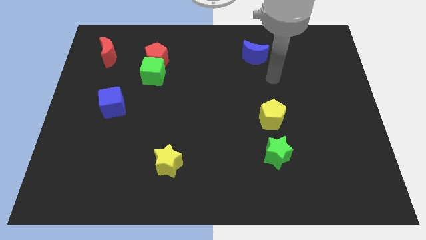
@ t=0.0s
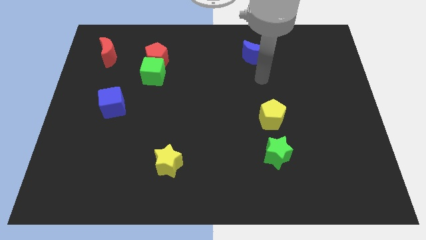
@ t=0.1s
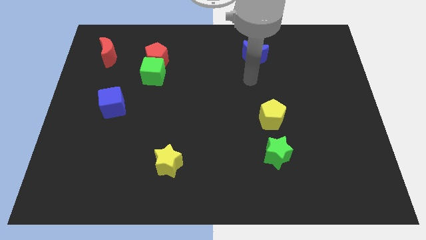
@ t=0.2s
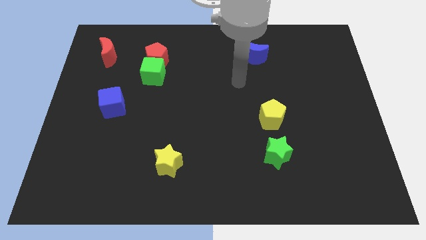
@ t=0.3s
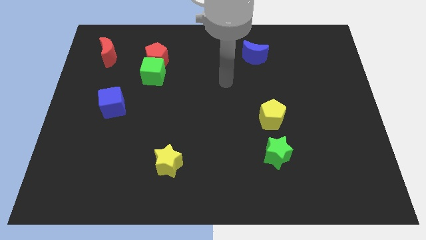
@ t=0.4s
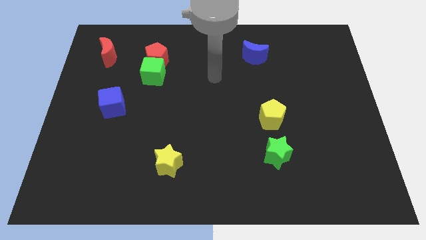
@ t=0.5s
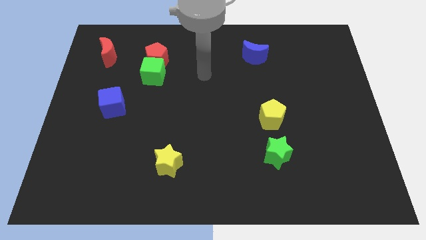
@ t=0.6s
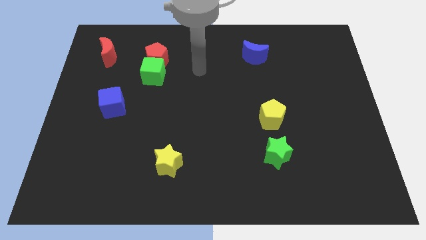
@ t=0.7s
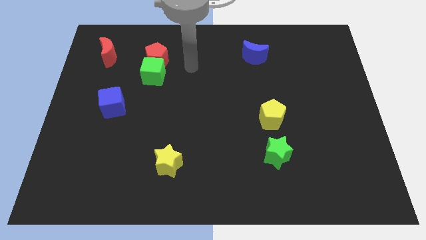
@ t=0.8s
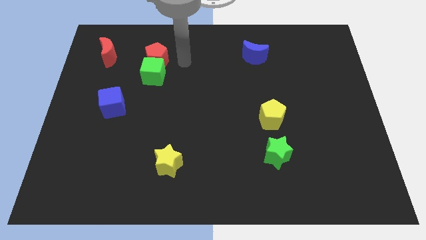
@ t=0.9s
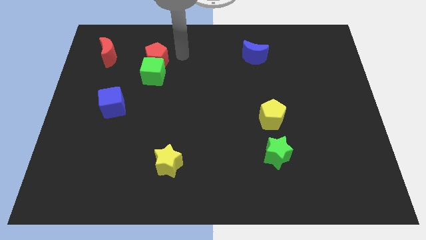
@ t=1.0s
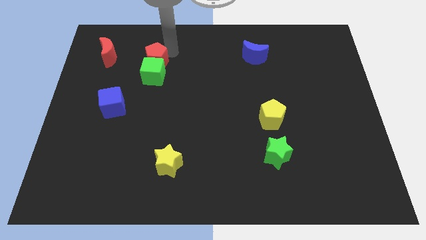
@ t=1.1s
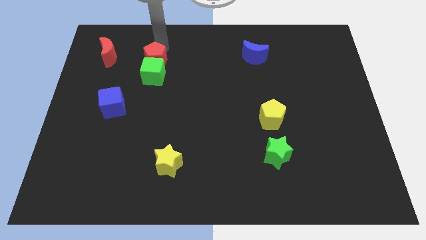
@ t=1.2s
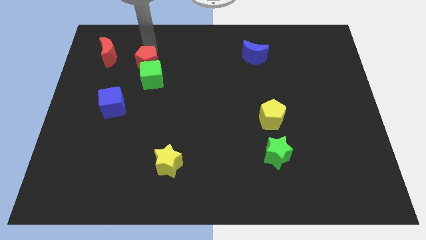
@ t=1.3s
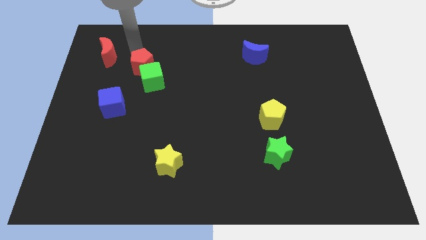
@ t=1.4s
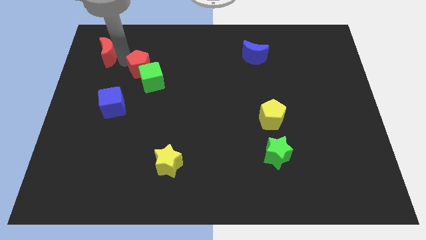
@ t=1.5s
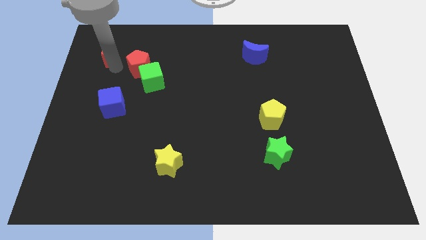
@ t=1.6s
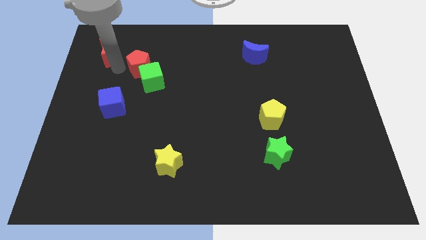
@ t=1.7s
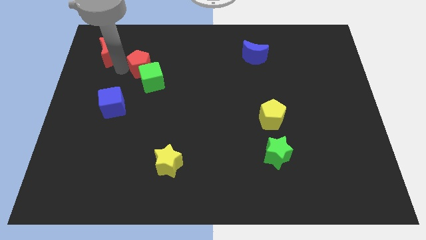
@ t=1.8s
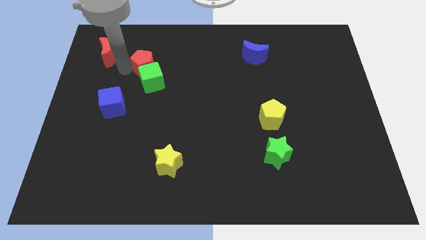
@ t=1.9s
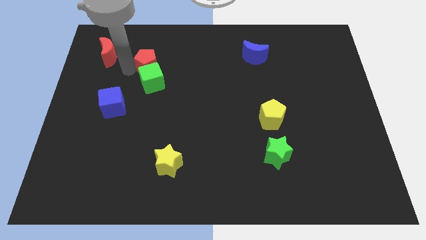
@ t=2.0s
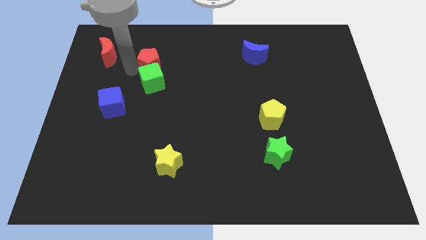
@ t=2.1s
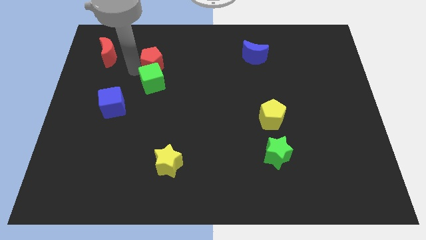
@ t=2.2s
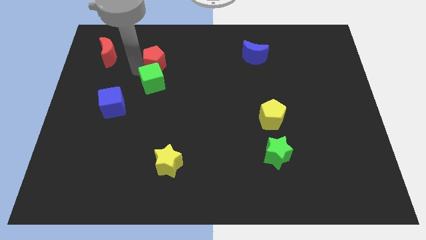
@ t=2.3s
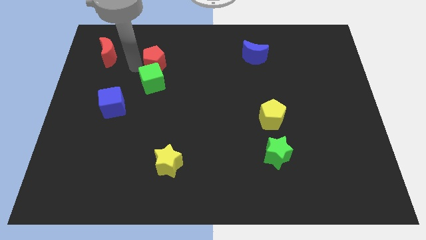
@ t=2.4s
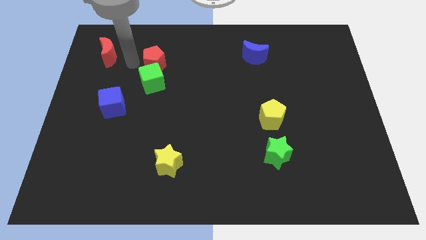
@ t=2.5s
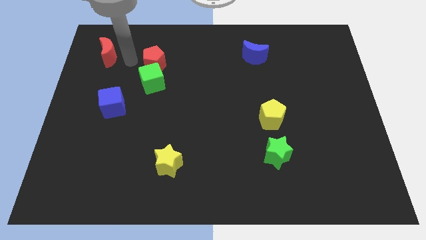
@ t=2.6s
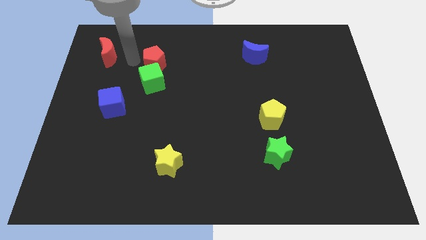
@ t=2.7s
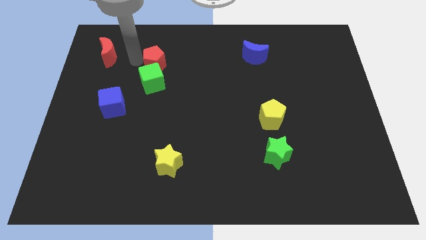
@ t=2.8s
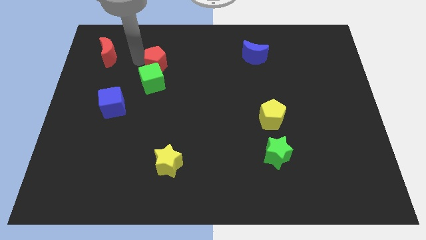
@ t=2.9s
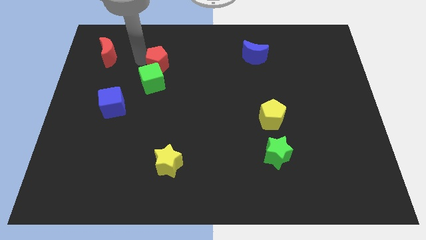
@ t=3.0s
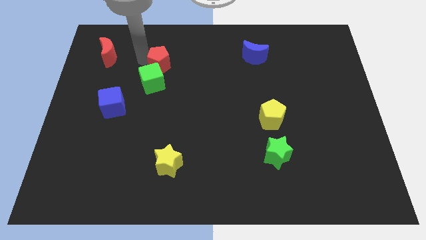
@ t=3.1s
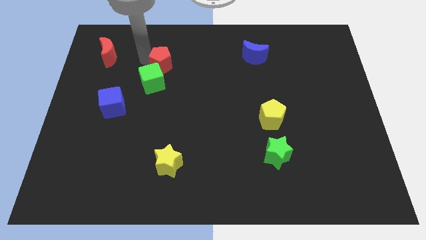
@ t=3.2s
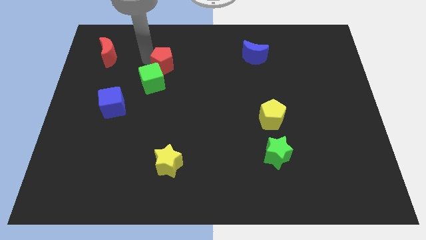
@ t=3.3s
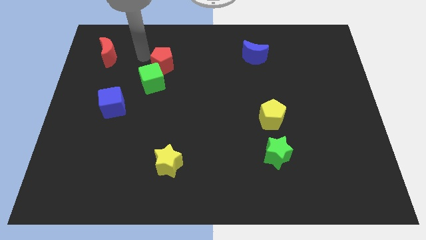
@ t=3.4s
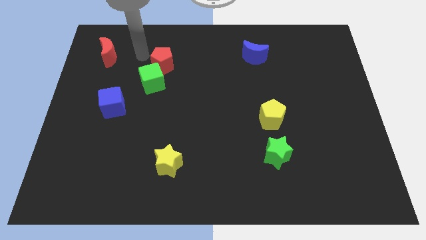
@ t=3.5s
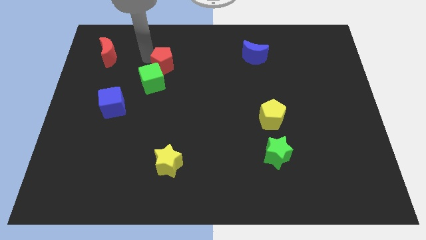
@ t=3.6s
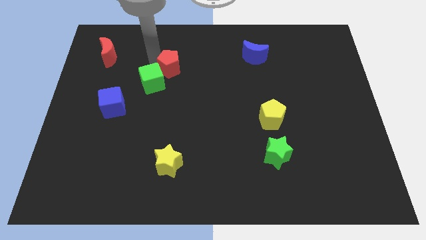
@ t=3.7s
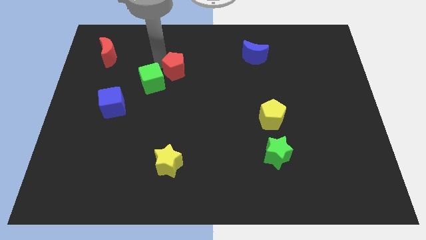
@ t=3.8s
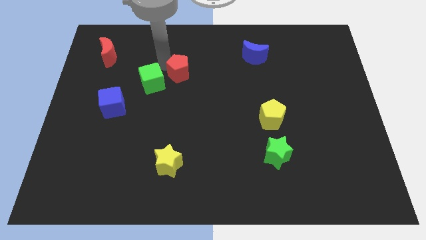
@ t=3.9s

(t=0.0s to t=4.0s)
move the red pentagon slightly downwards and then right

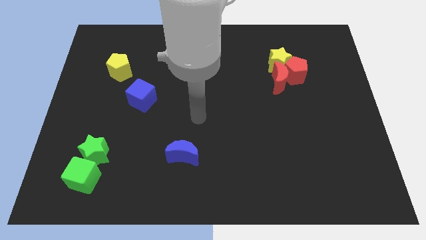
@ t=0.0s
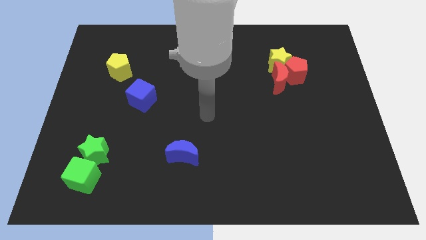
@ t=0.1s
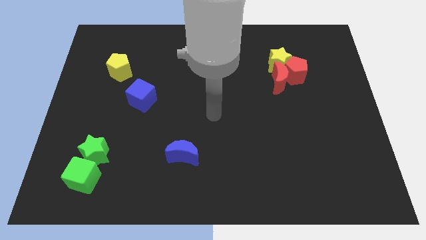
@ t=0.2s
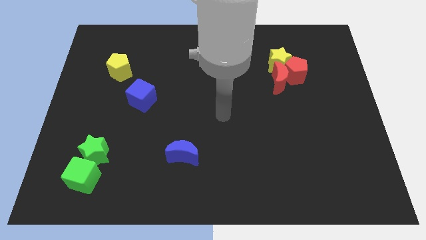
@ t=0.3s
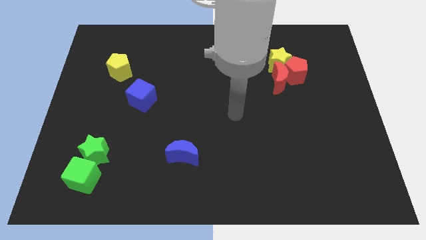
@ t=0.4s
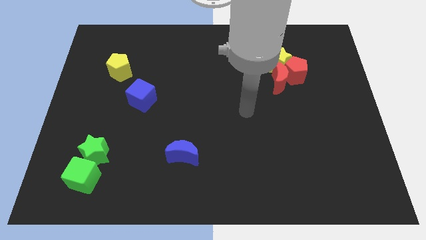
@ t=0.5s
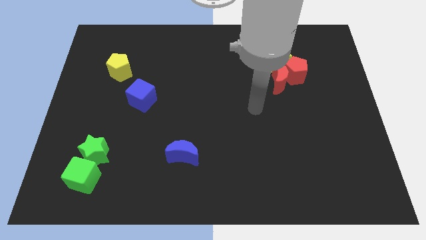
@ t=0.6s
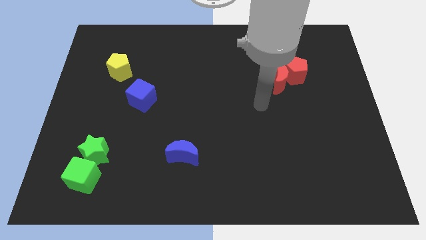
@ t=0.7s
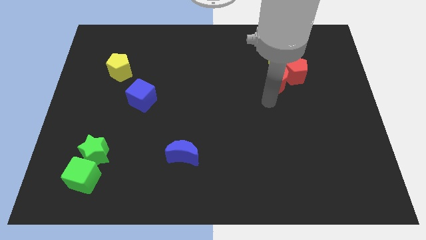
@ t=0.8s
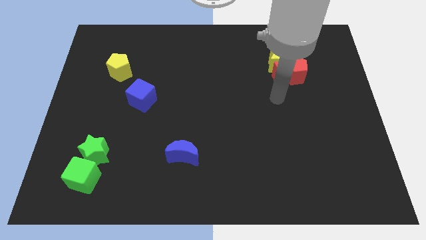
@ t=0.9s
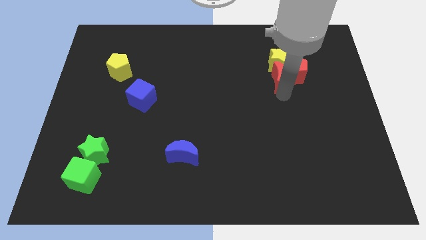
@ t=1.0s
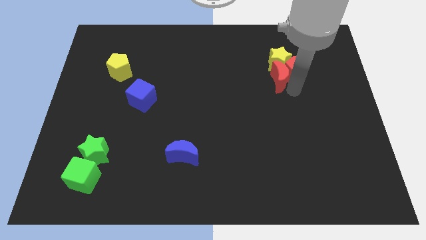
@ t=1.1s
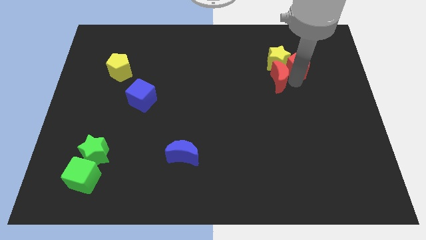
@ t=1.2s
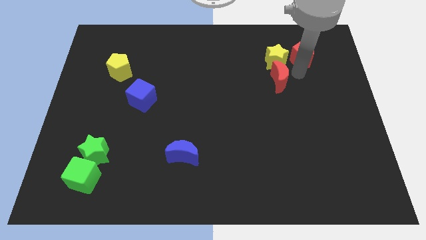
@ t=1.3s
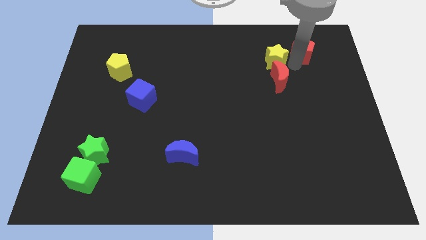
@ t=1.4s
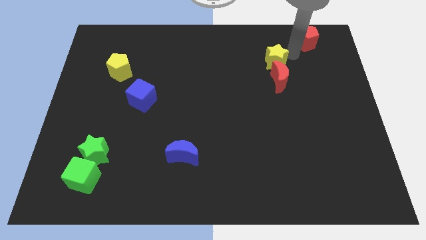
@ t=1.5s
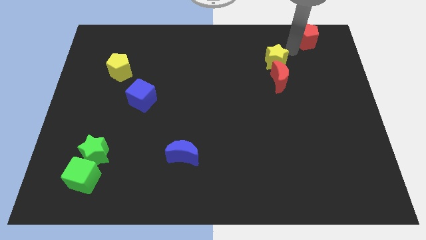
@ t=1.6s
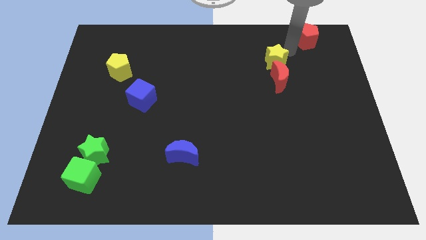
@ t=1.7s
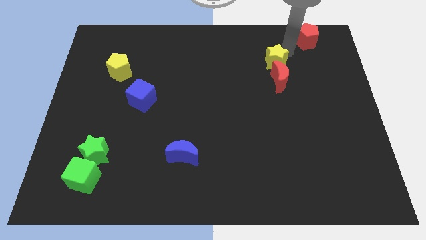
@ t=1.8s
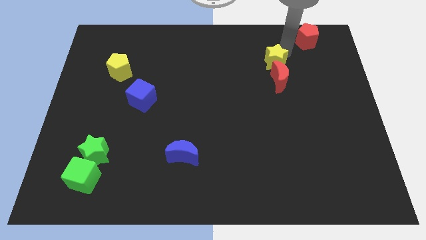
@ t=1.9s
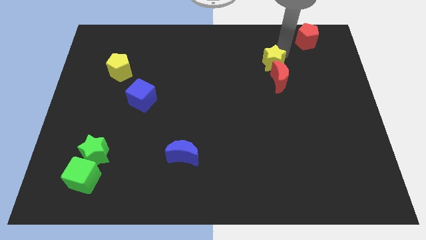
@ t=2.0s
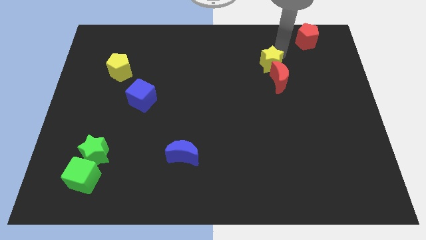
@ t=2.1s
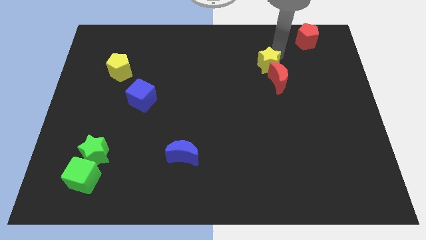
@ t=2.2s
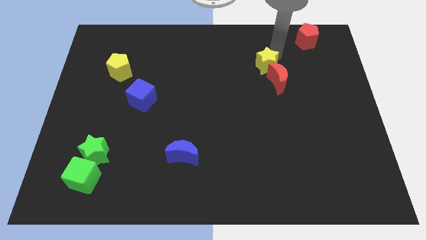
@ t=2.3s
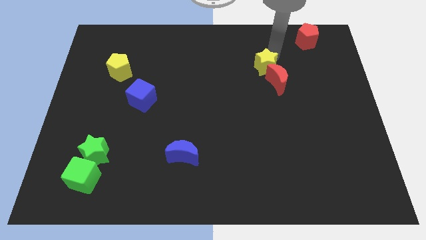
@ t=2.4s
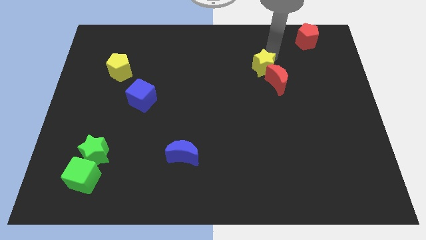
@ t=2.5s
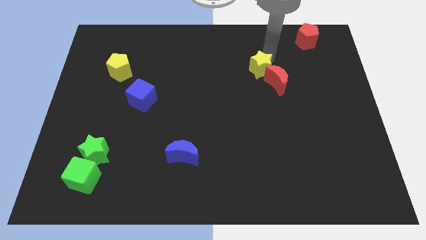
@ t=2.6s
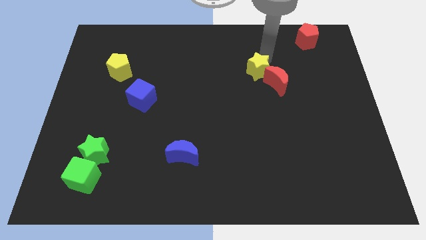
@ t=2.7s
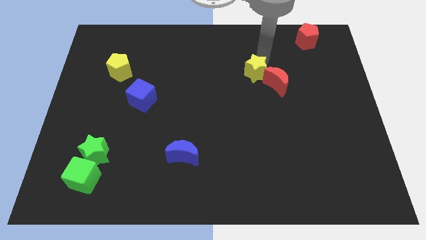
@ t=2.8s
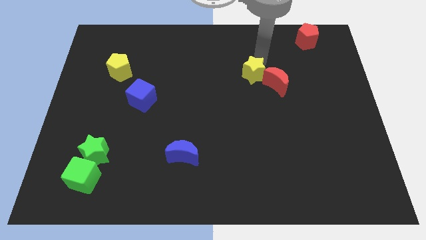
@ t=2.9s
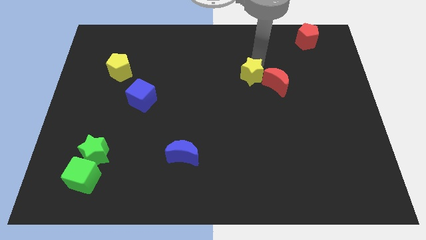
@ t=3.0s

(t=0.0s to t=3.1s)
slide the yellow star a little bit downwards and then to the left

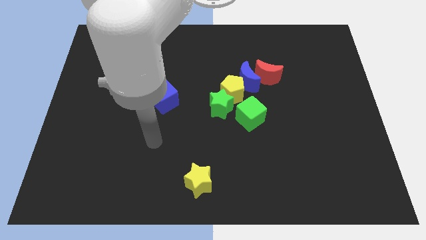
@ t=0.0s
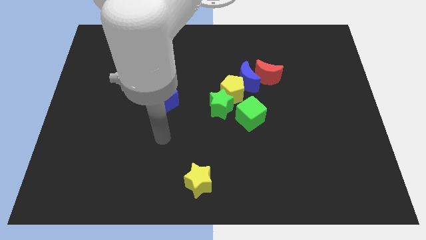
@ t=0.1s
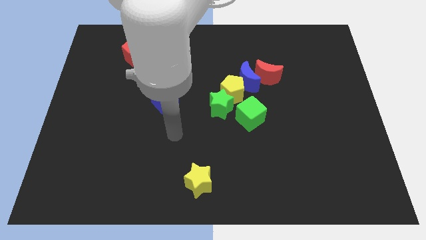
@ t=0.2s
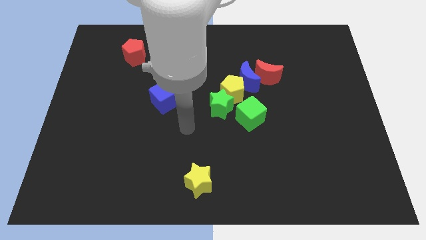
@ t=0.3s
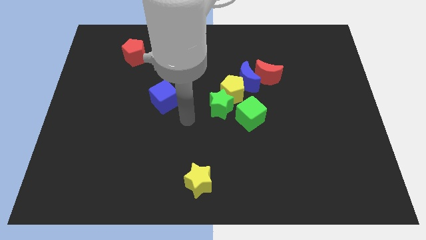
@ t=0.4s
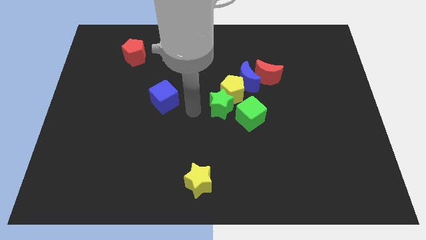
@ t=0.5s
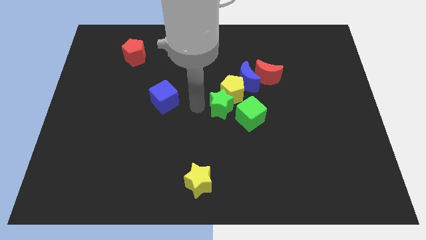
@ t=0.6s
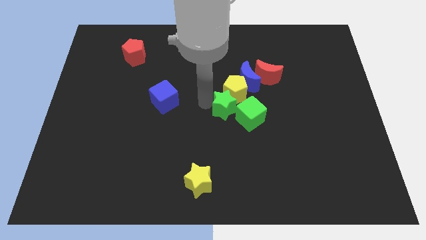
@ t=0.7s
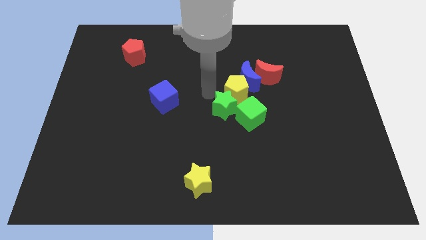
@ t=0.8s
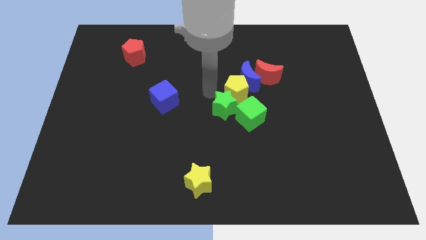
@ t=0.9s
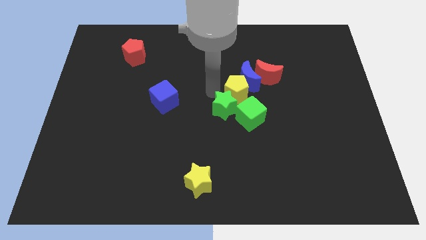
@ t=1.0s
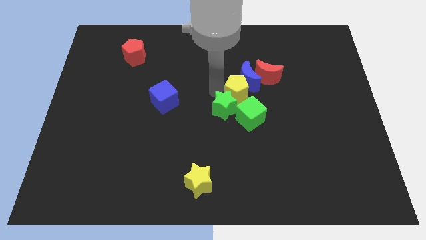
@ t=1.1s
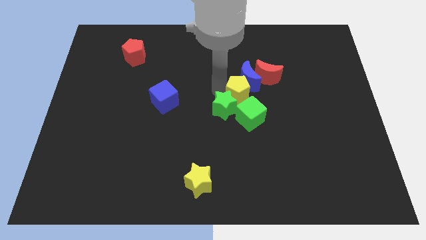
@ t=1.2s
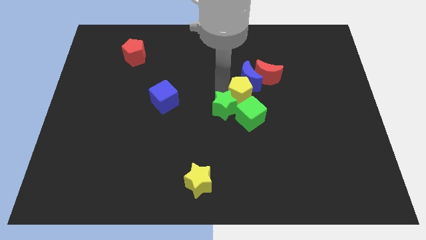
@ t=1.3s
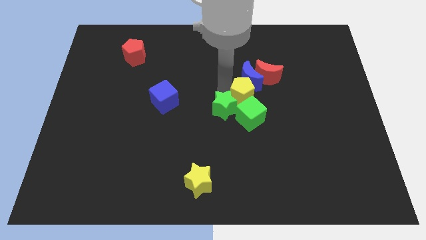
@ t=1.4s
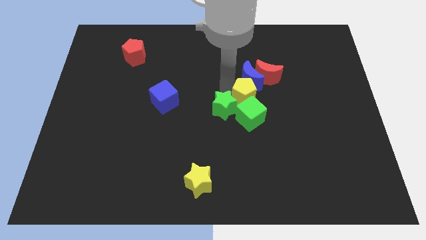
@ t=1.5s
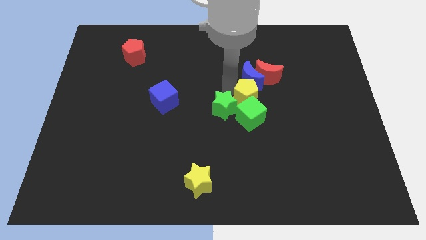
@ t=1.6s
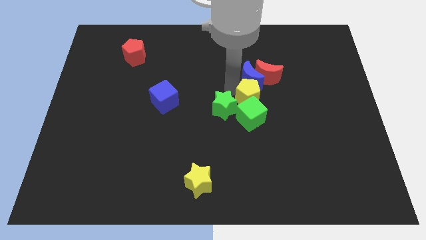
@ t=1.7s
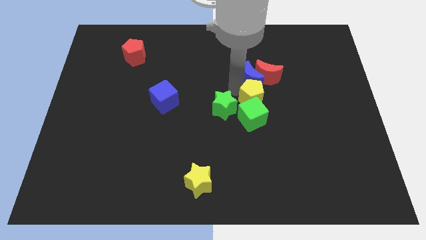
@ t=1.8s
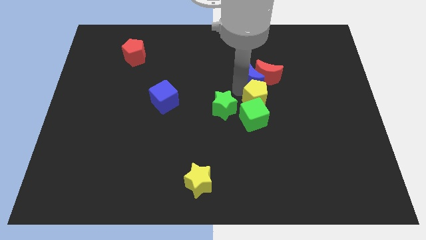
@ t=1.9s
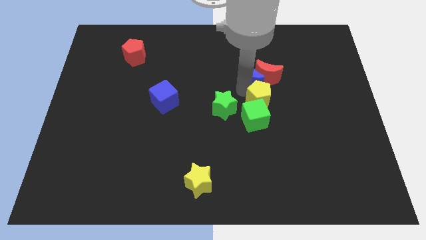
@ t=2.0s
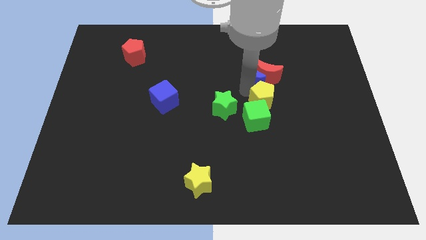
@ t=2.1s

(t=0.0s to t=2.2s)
move the yellow pentagon right a little
